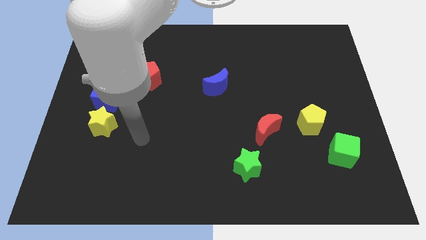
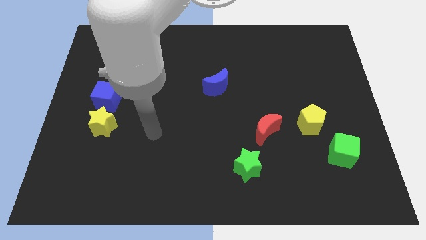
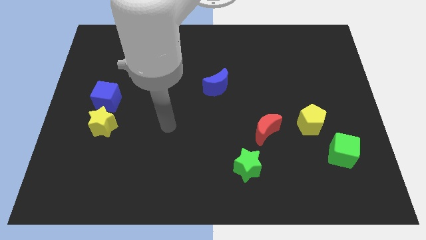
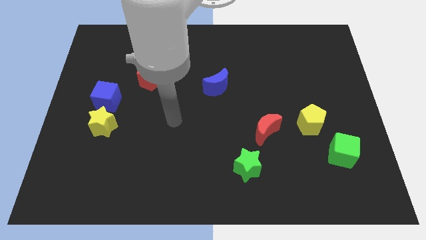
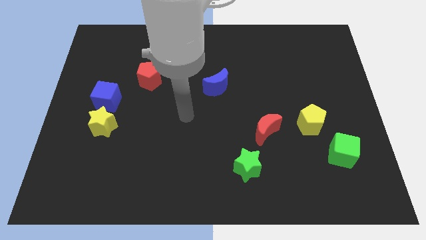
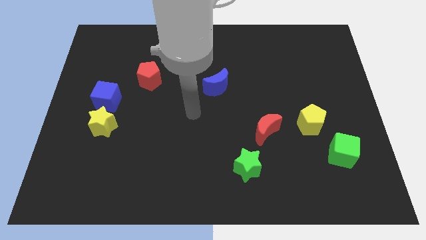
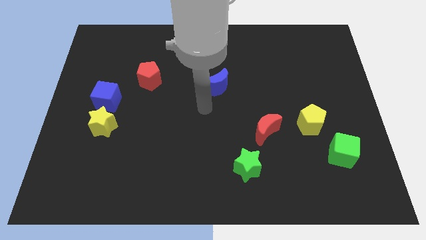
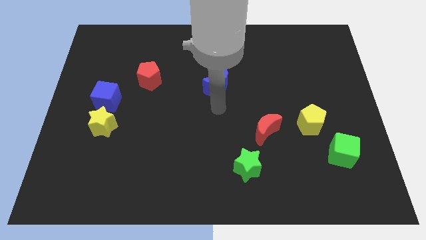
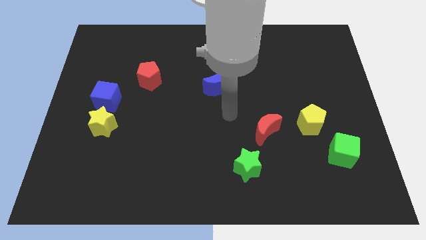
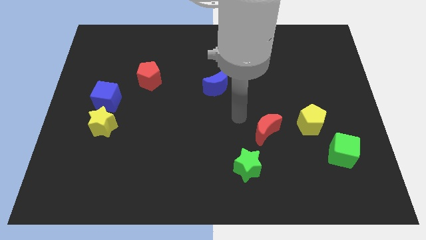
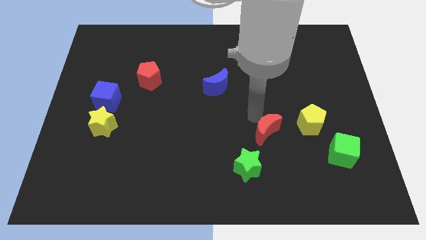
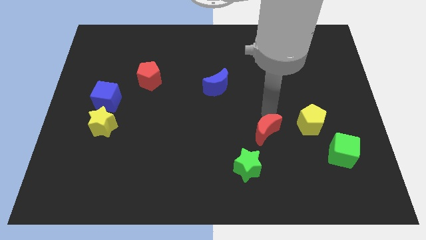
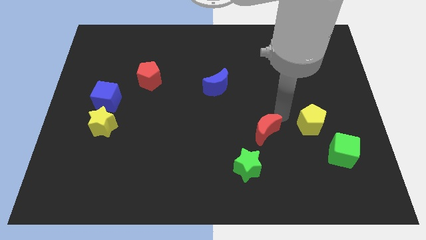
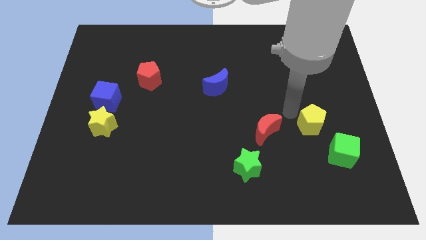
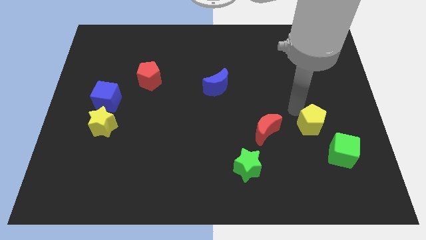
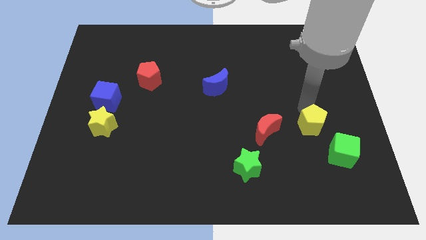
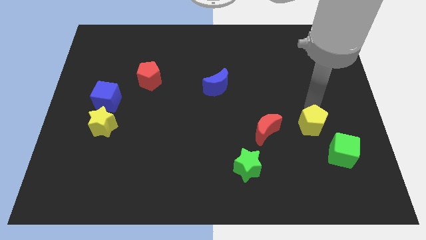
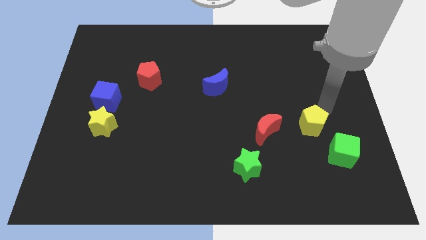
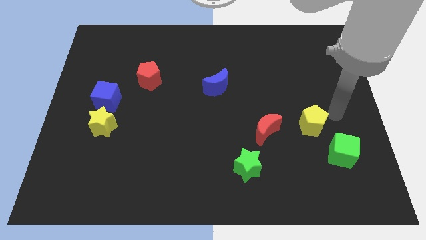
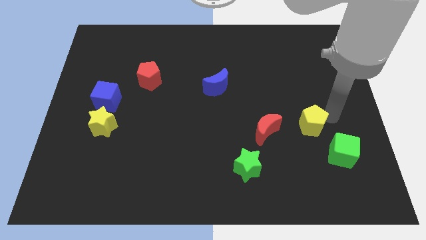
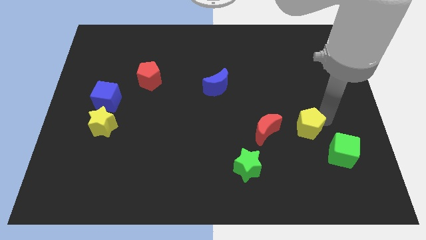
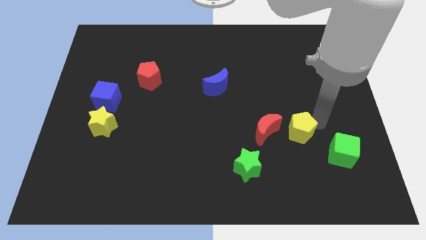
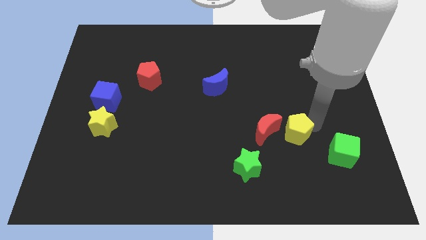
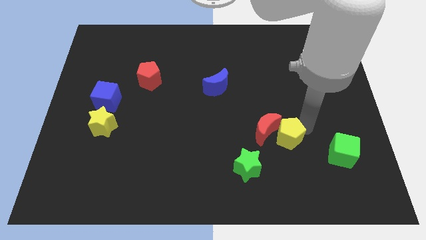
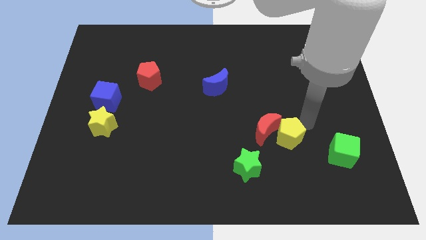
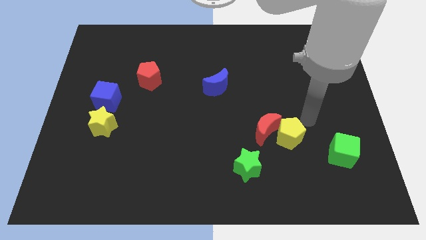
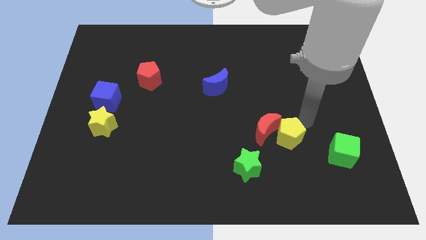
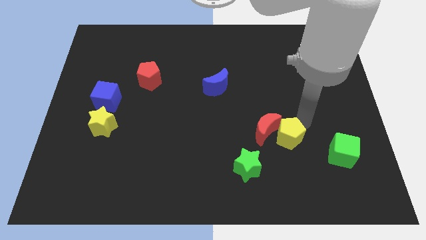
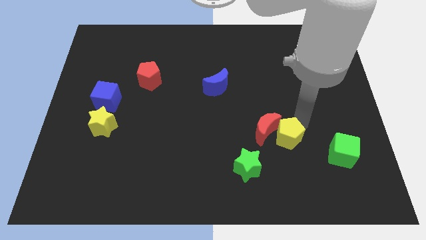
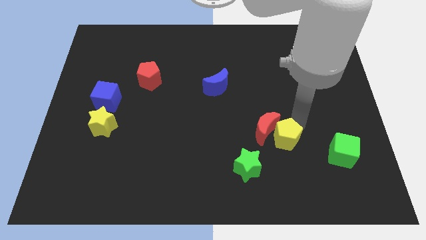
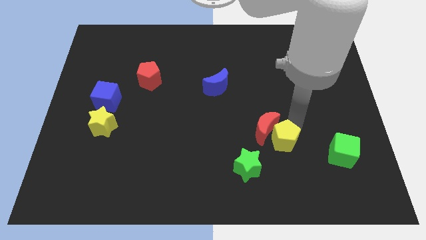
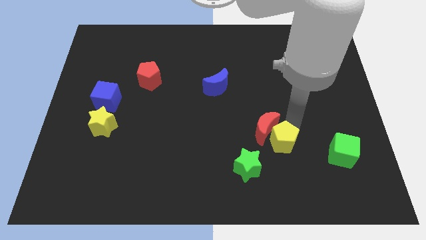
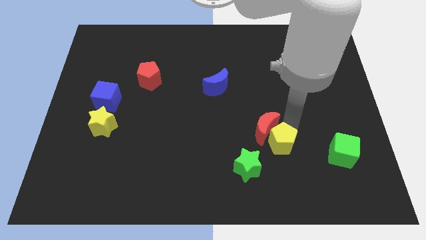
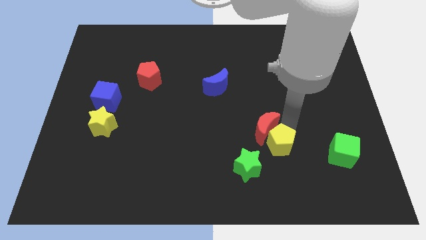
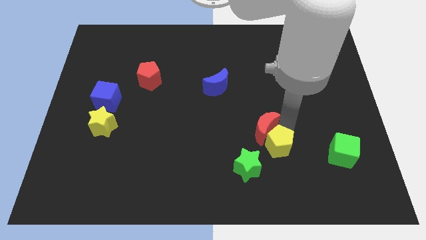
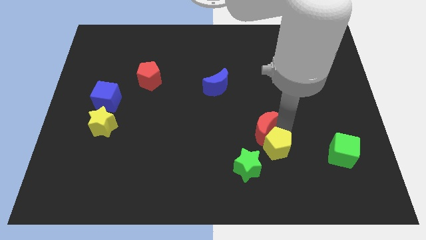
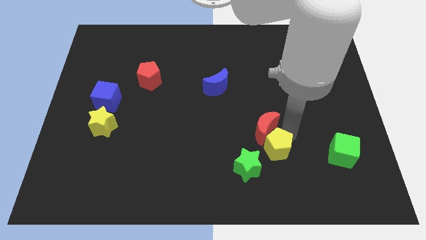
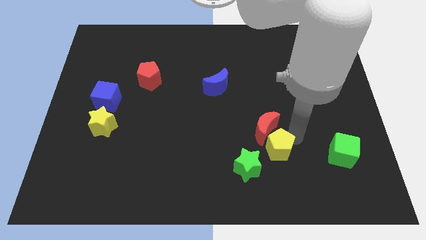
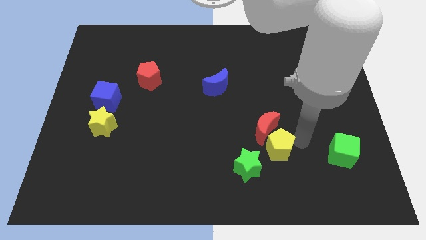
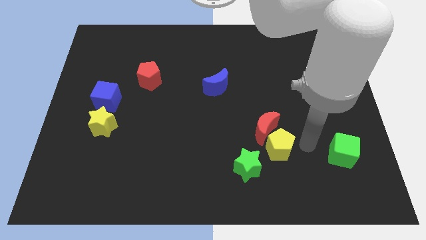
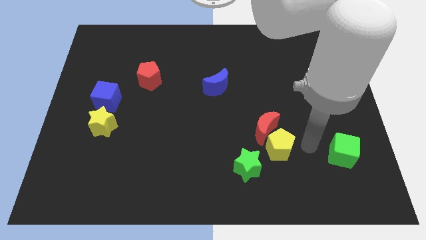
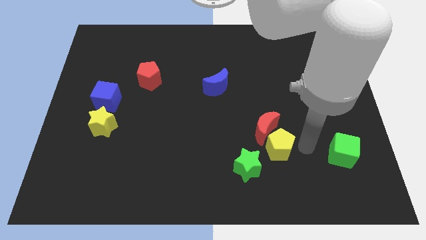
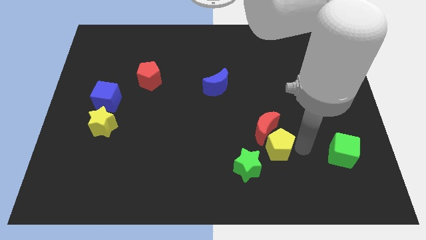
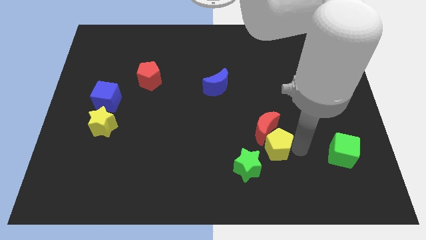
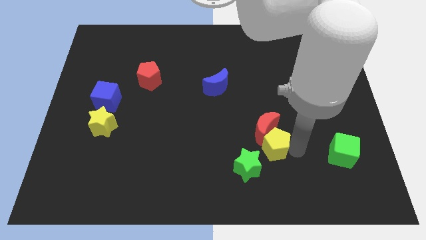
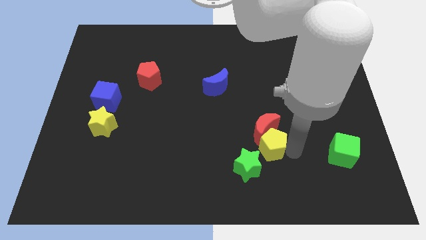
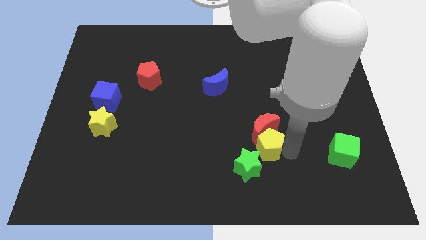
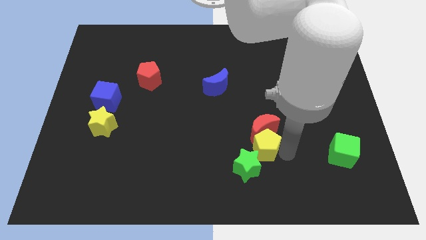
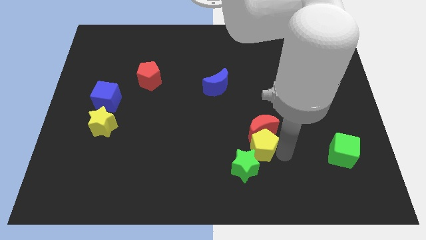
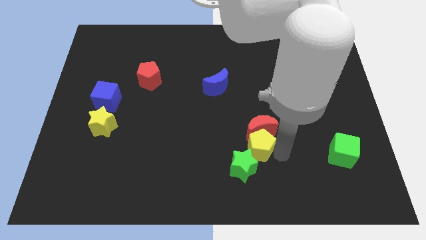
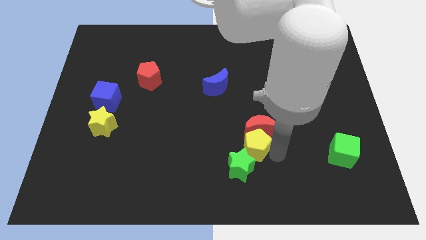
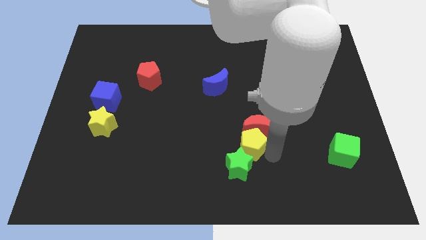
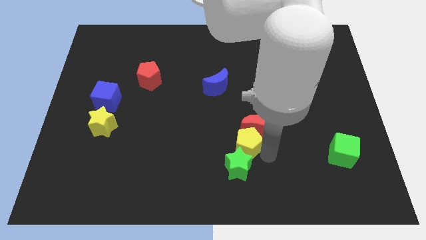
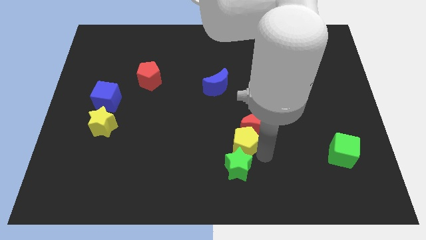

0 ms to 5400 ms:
put the yellow pentagon to the top left side of the green star

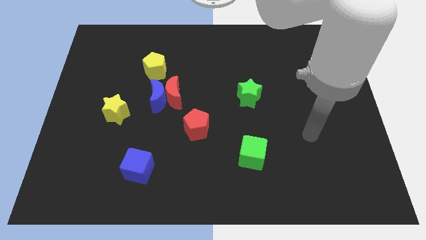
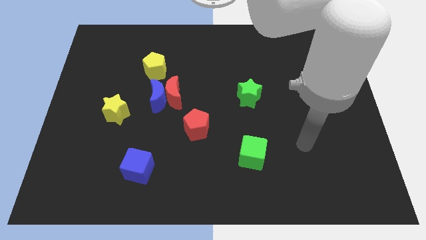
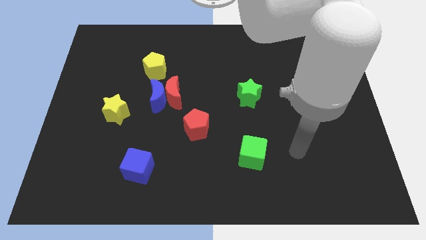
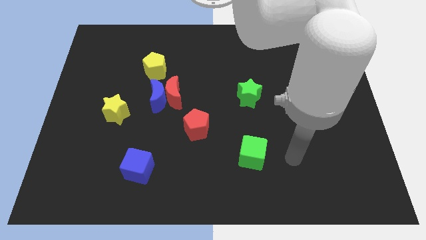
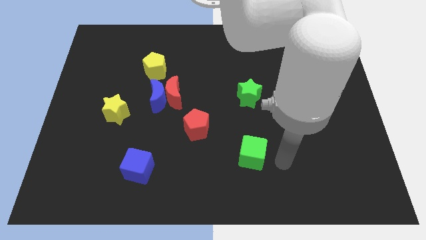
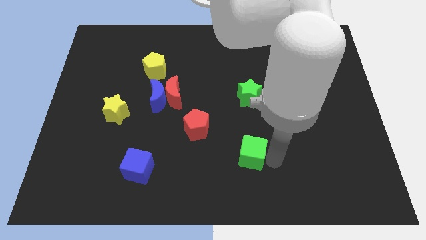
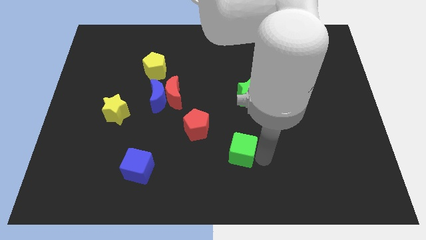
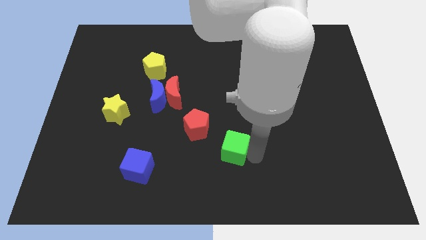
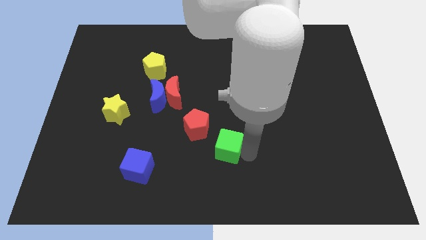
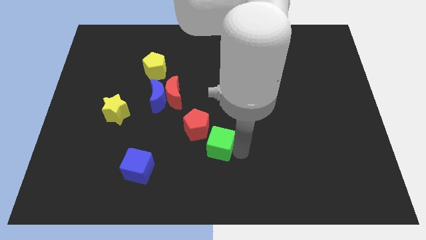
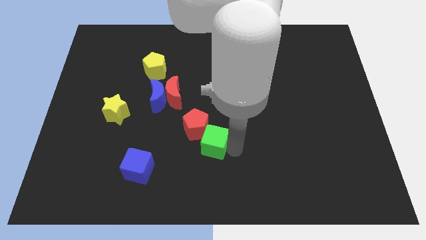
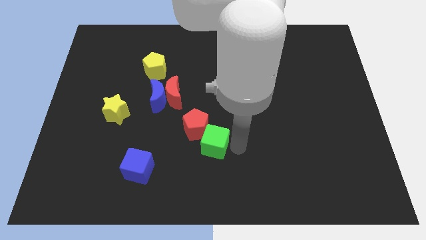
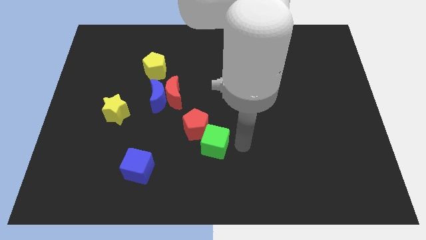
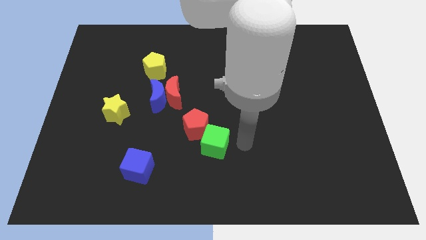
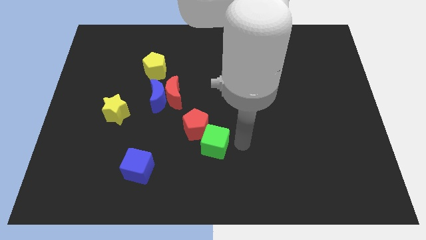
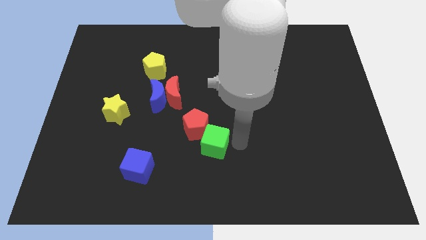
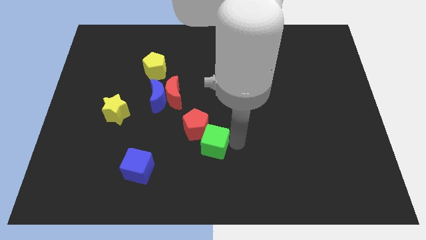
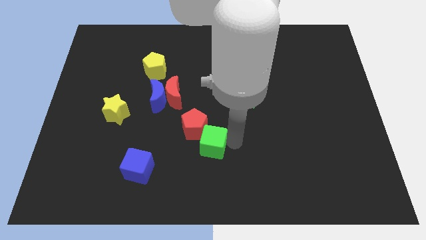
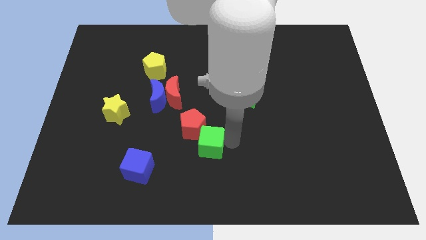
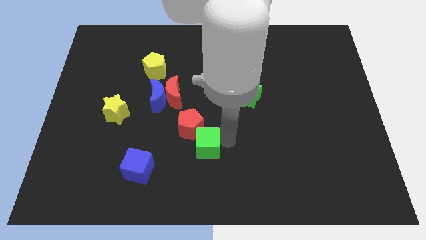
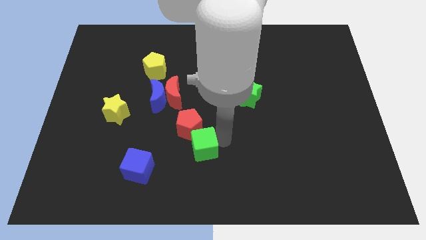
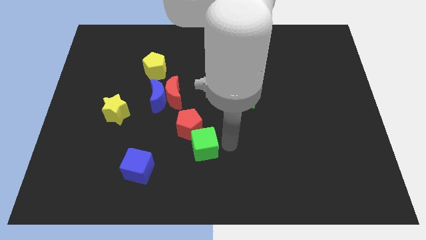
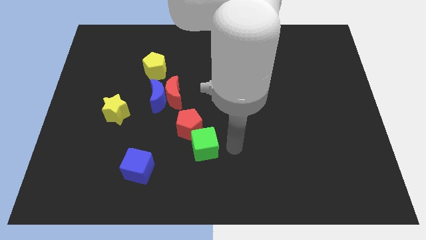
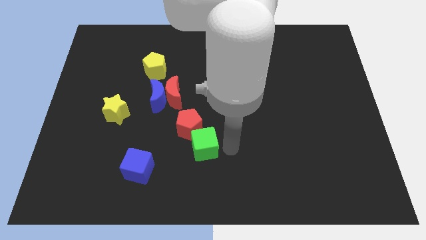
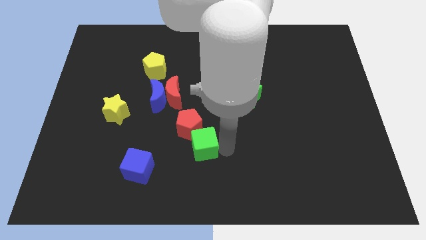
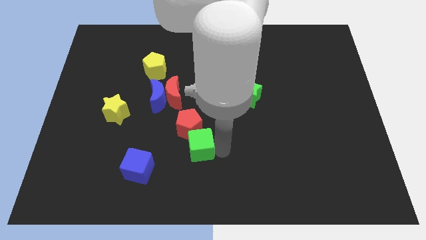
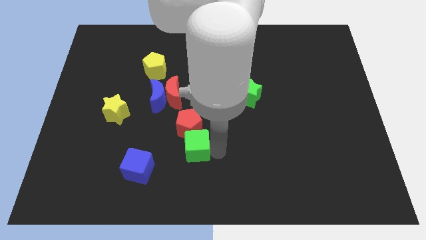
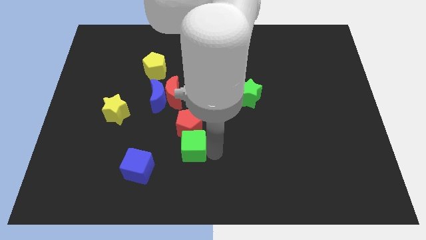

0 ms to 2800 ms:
put the green cube to the bottom left side of the red pentagon
